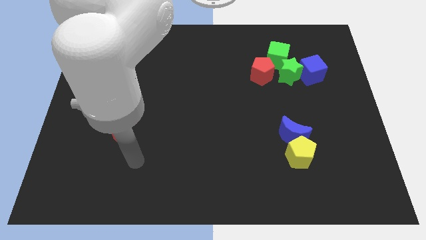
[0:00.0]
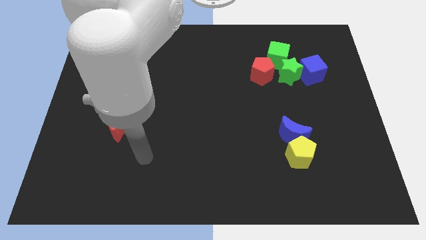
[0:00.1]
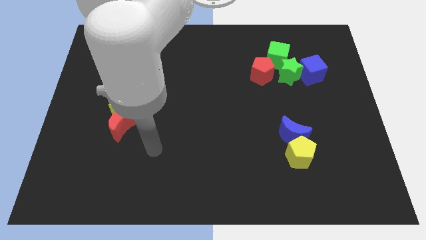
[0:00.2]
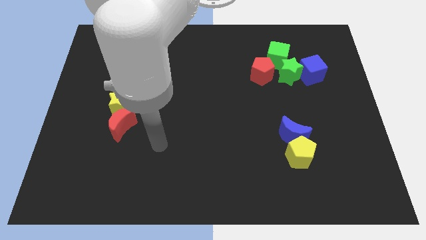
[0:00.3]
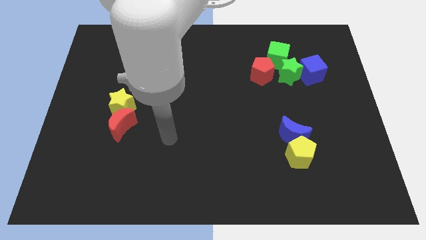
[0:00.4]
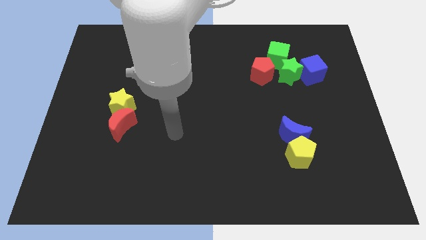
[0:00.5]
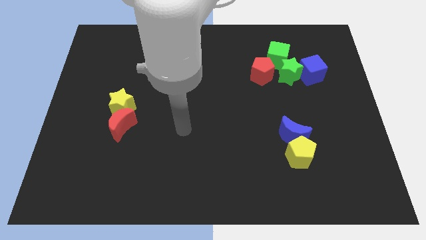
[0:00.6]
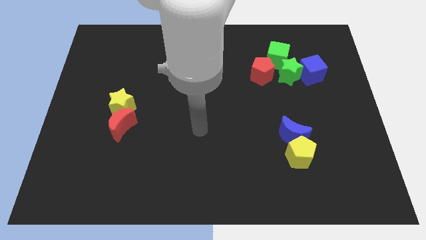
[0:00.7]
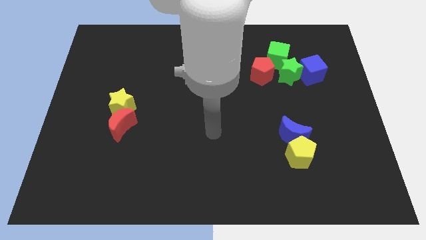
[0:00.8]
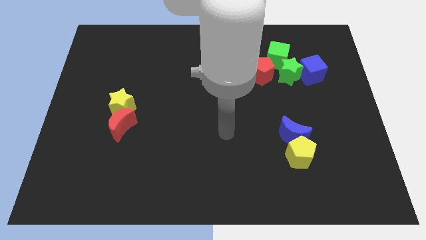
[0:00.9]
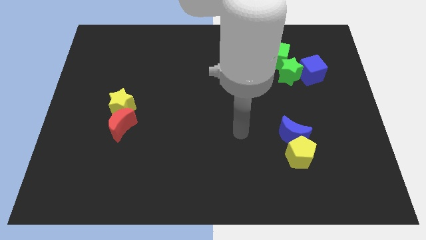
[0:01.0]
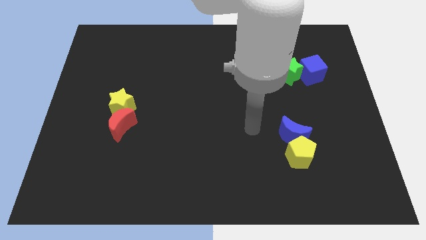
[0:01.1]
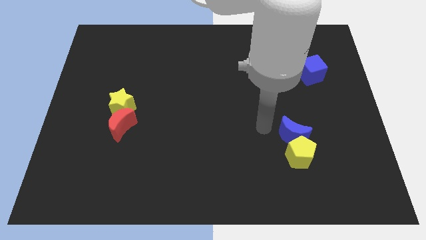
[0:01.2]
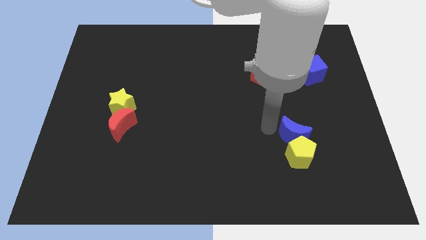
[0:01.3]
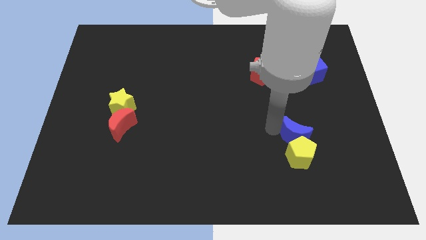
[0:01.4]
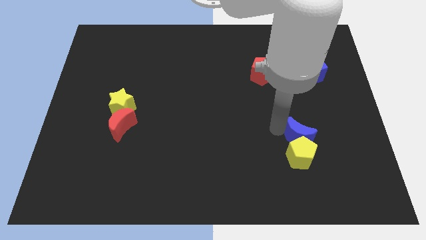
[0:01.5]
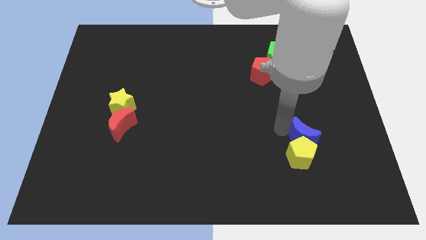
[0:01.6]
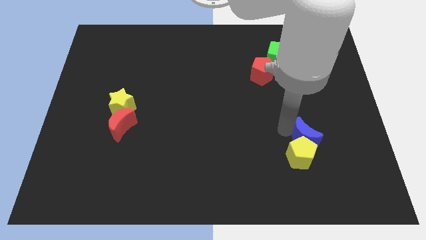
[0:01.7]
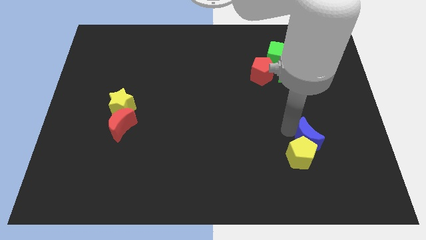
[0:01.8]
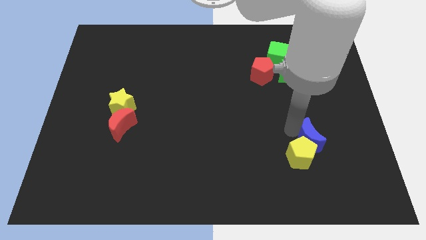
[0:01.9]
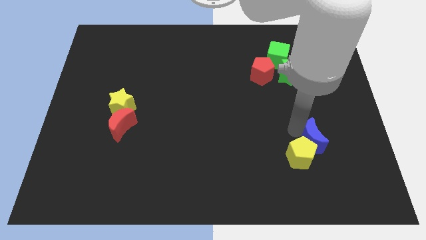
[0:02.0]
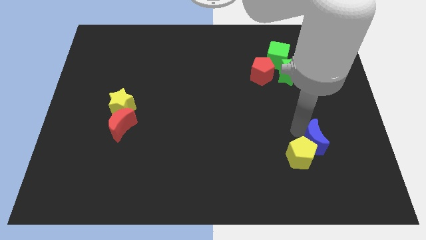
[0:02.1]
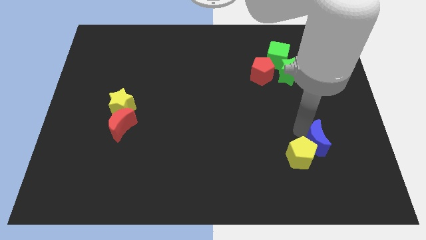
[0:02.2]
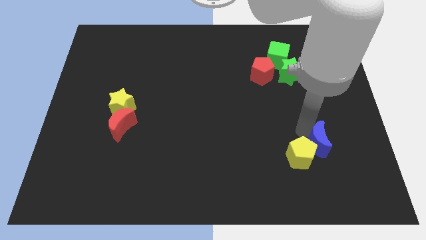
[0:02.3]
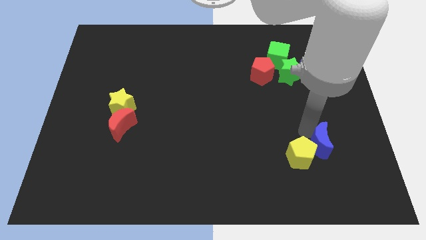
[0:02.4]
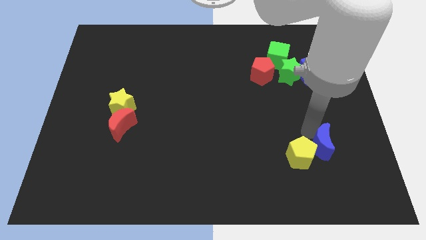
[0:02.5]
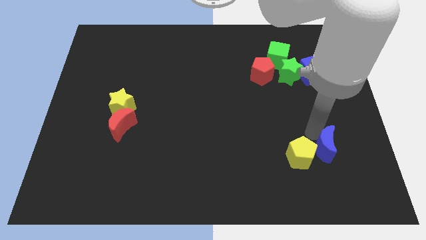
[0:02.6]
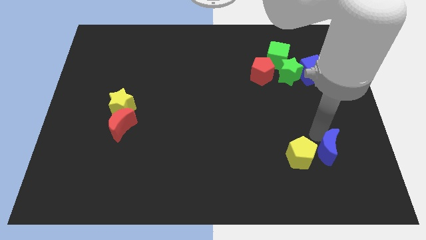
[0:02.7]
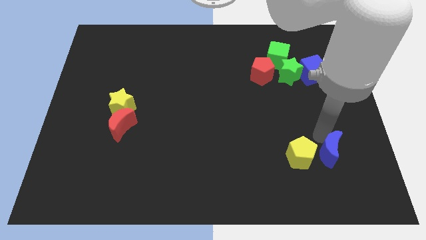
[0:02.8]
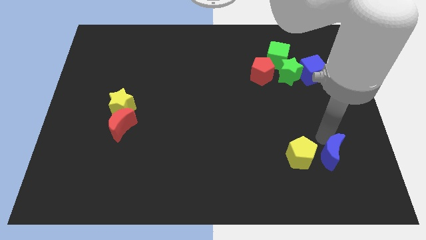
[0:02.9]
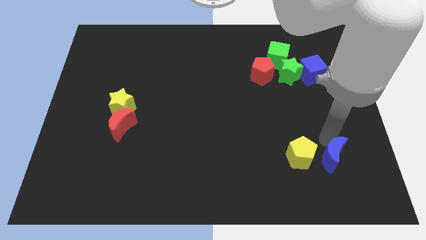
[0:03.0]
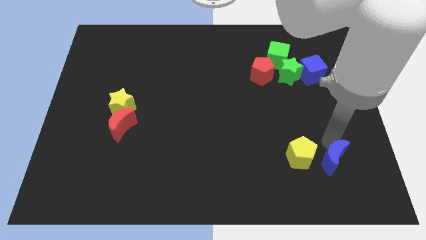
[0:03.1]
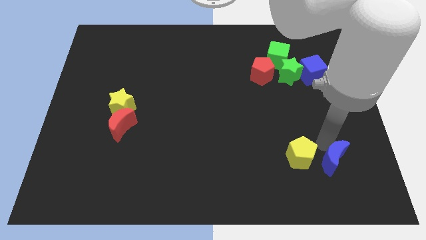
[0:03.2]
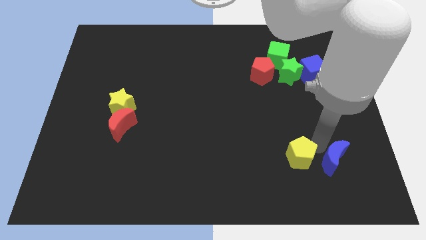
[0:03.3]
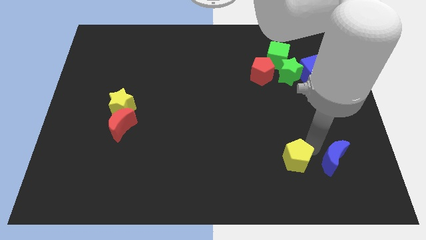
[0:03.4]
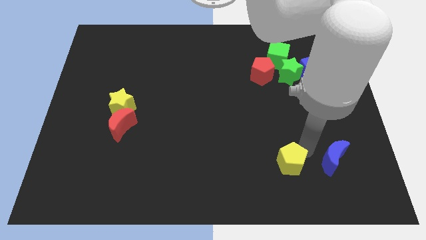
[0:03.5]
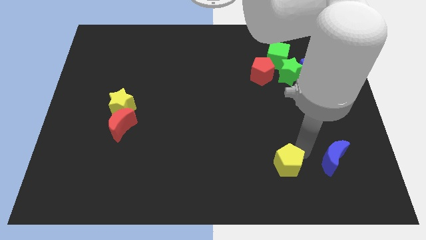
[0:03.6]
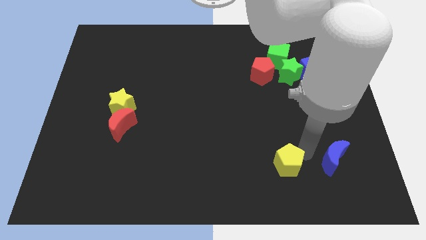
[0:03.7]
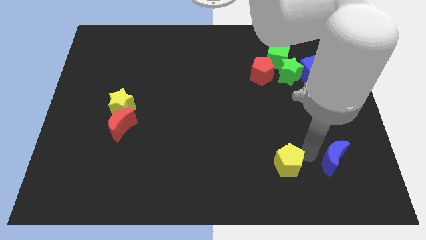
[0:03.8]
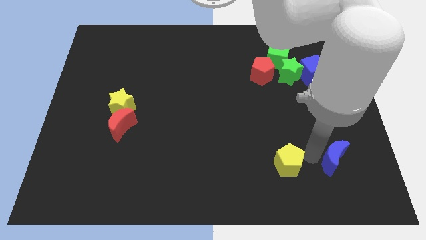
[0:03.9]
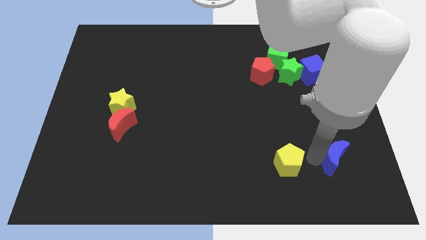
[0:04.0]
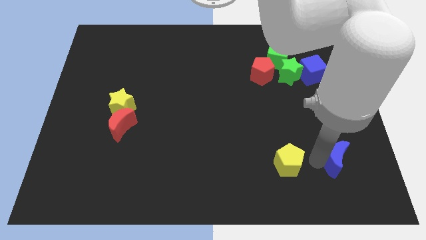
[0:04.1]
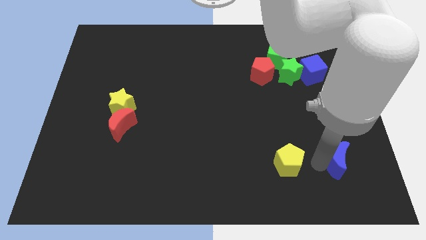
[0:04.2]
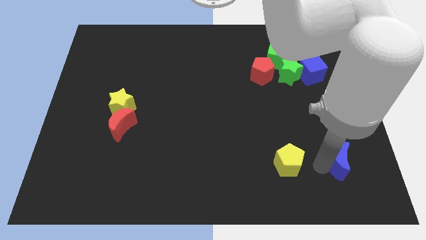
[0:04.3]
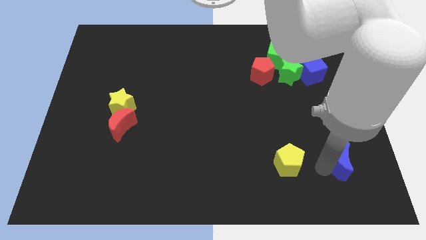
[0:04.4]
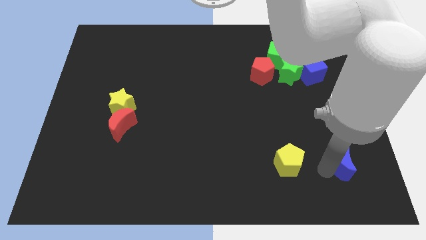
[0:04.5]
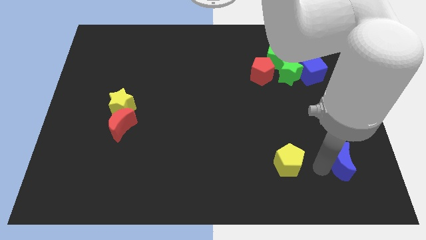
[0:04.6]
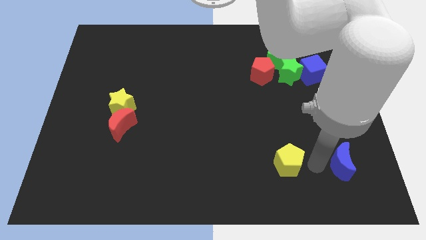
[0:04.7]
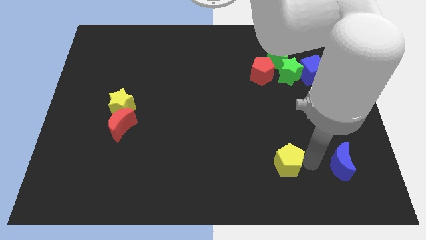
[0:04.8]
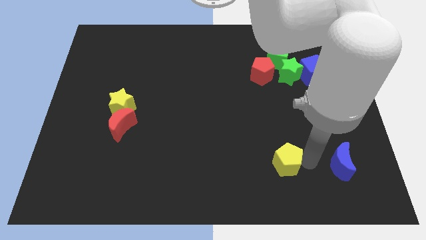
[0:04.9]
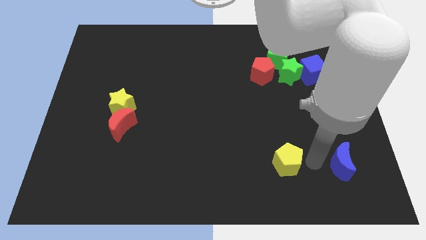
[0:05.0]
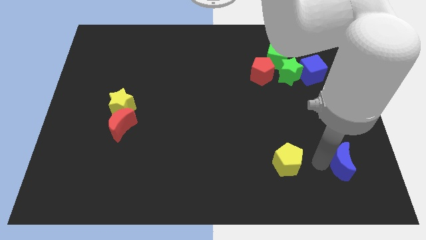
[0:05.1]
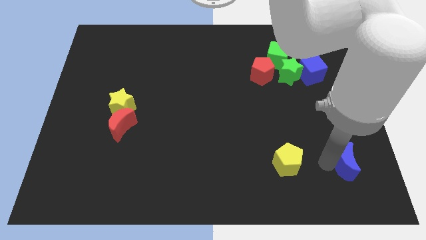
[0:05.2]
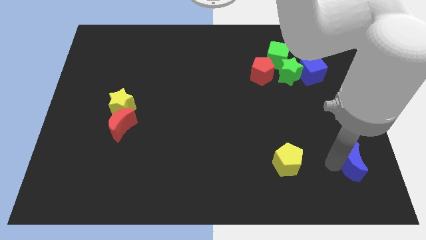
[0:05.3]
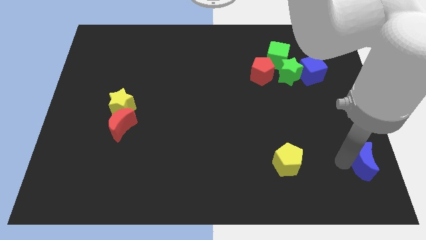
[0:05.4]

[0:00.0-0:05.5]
push the blue moon to the bottom right

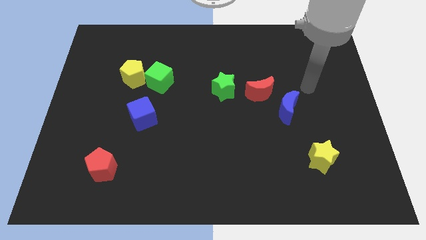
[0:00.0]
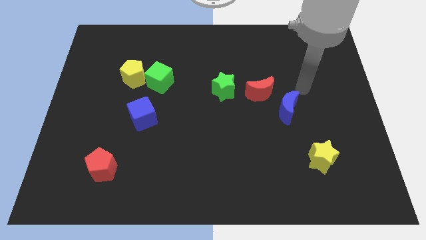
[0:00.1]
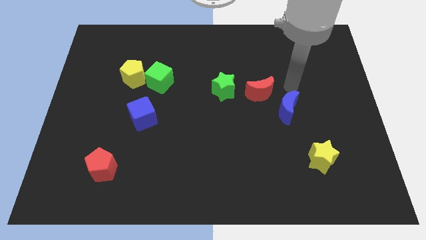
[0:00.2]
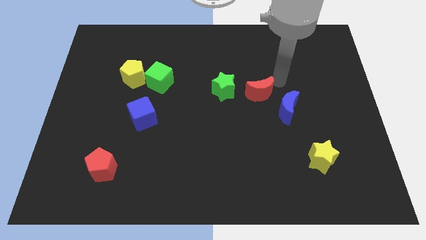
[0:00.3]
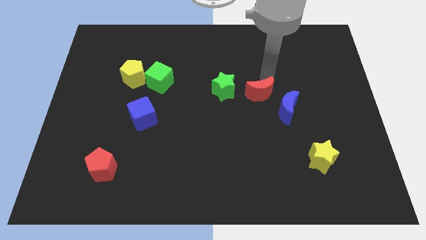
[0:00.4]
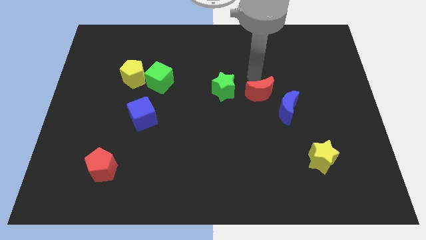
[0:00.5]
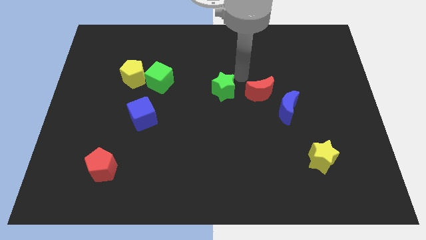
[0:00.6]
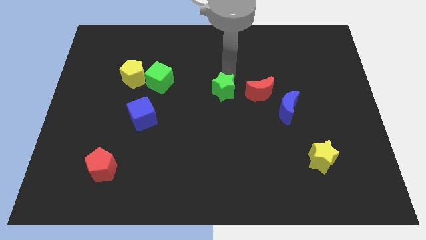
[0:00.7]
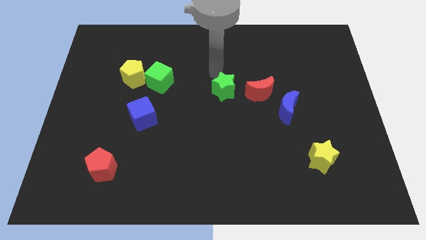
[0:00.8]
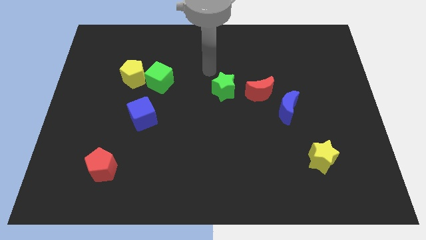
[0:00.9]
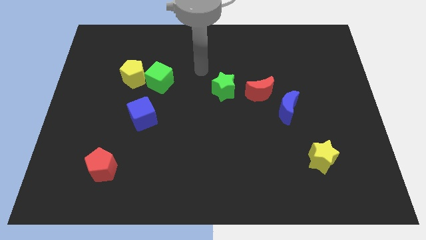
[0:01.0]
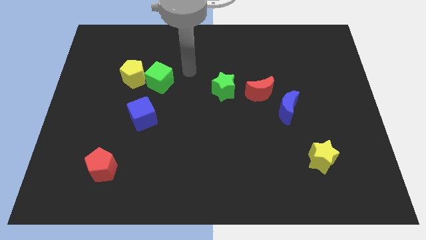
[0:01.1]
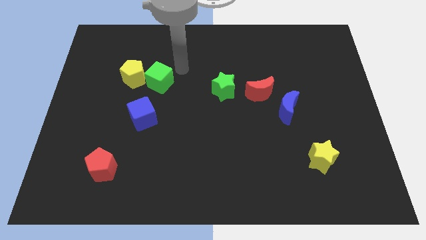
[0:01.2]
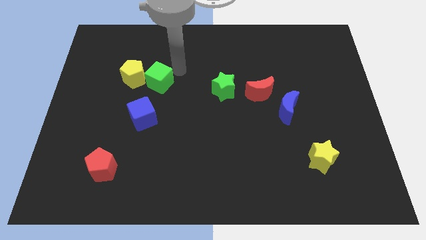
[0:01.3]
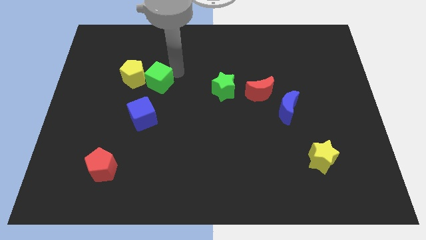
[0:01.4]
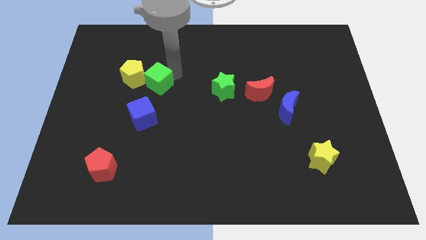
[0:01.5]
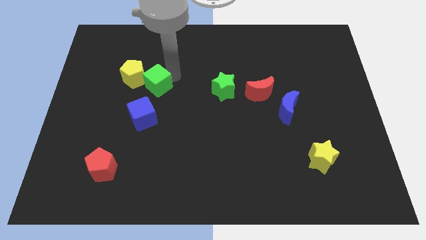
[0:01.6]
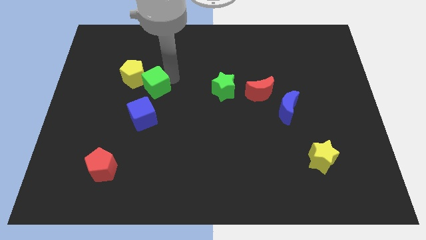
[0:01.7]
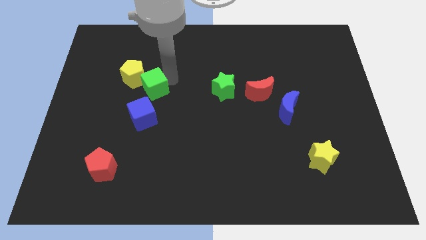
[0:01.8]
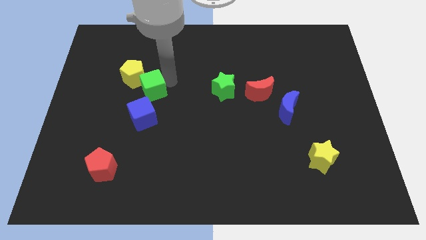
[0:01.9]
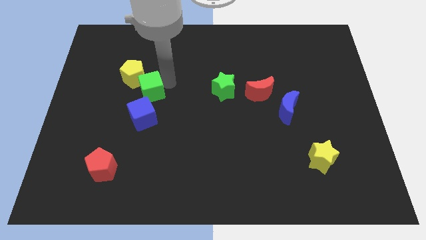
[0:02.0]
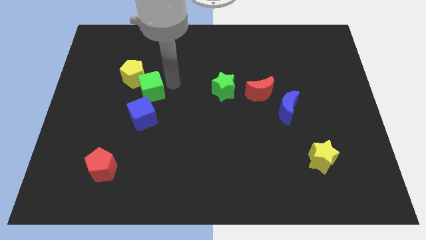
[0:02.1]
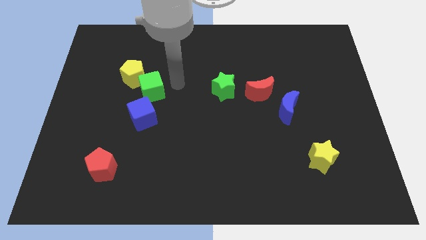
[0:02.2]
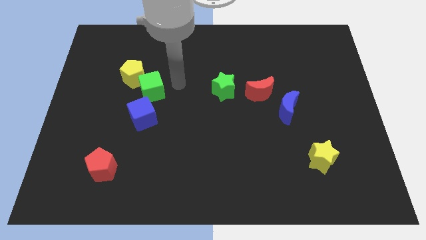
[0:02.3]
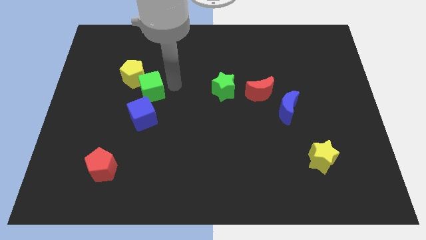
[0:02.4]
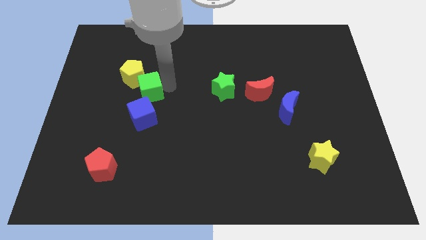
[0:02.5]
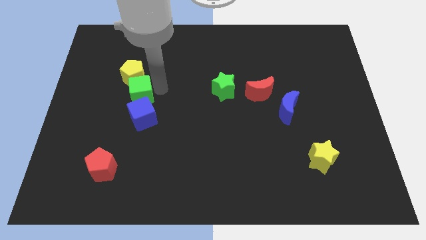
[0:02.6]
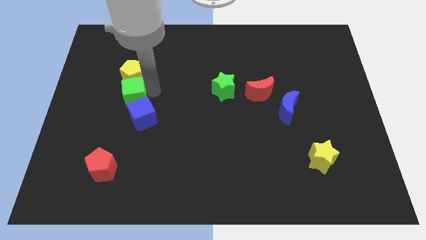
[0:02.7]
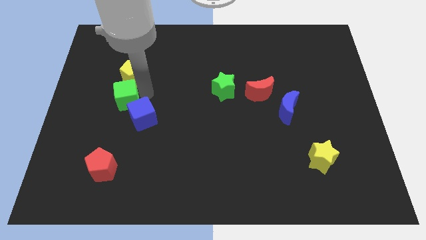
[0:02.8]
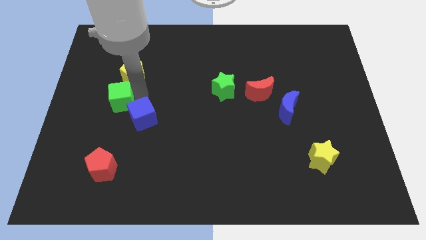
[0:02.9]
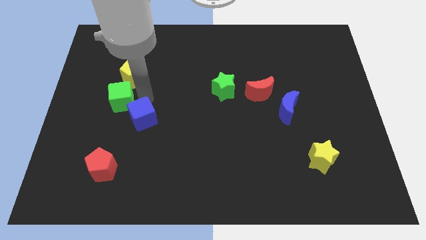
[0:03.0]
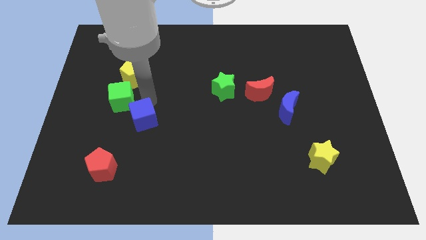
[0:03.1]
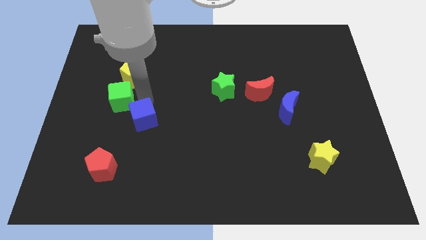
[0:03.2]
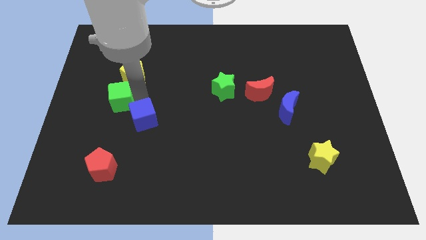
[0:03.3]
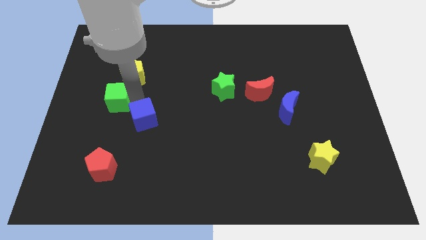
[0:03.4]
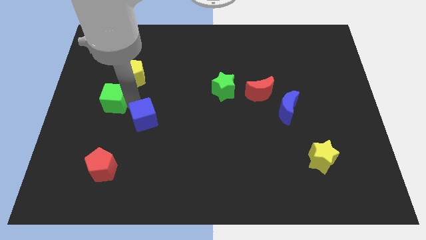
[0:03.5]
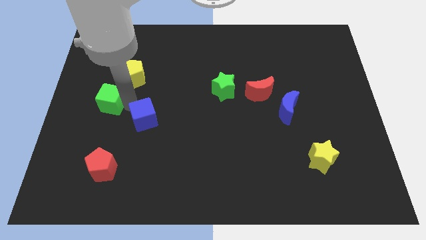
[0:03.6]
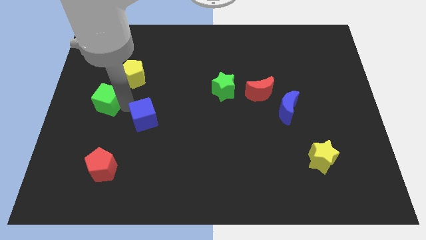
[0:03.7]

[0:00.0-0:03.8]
push the green cube to the center left
